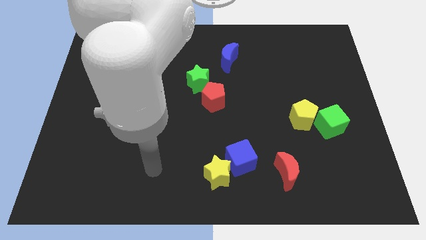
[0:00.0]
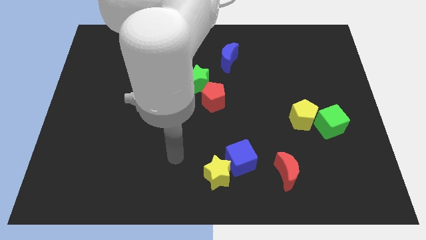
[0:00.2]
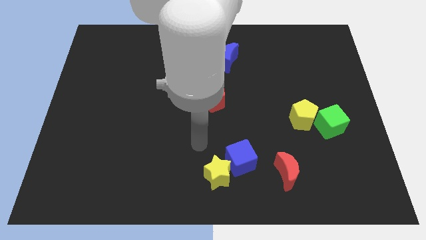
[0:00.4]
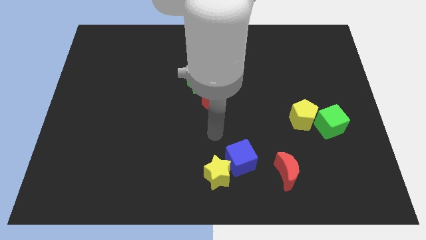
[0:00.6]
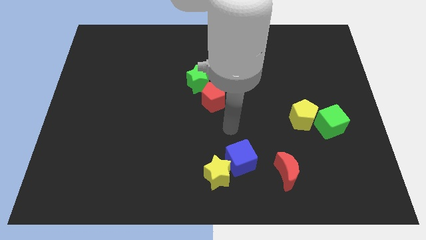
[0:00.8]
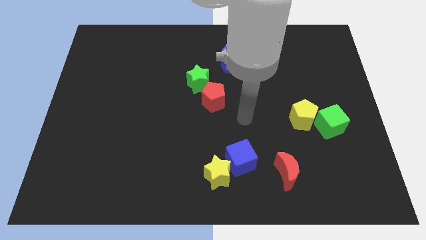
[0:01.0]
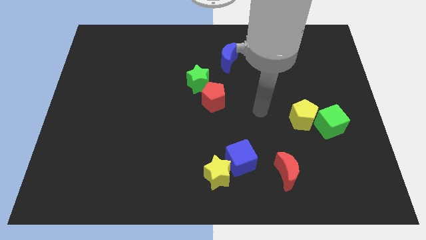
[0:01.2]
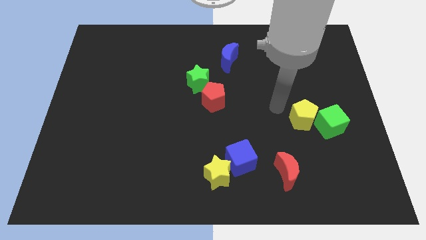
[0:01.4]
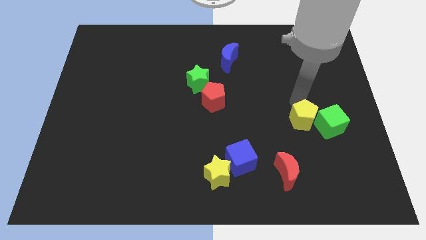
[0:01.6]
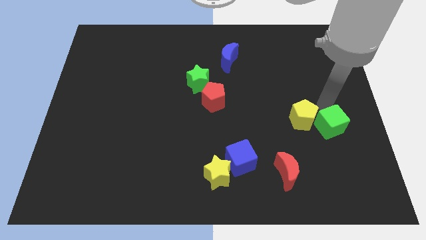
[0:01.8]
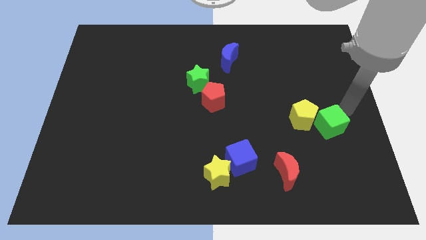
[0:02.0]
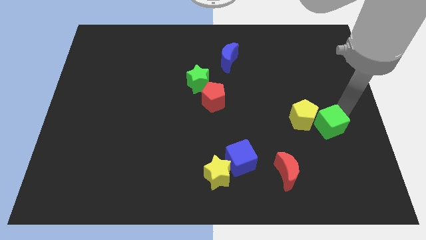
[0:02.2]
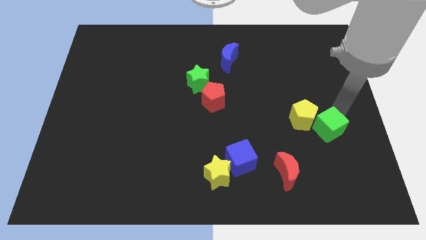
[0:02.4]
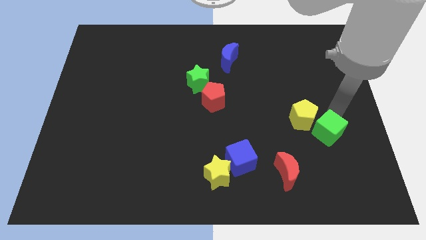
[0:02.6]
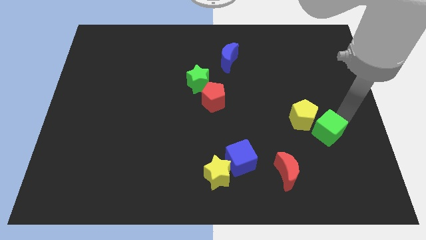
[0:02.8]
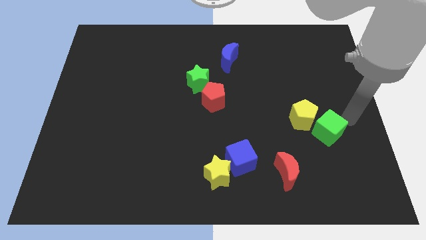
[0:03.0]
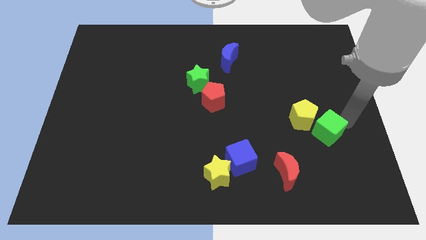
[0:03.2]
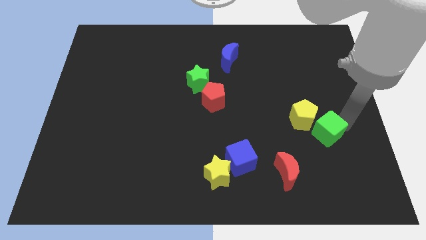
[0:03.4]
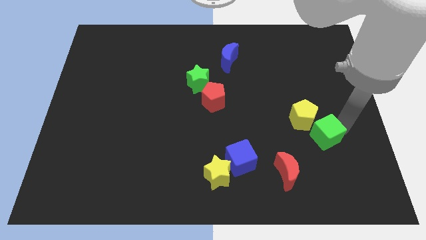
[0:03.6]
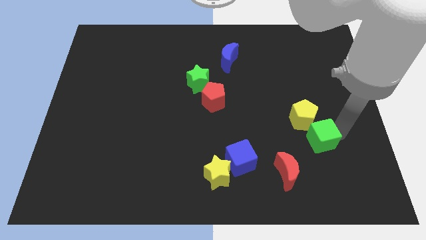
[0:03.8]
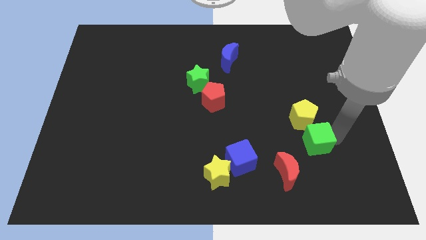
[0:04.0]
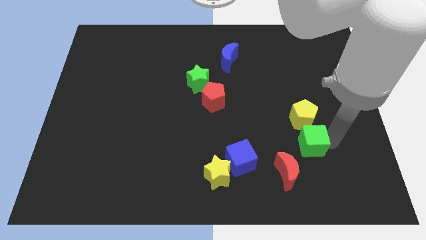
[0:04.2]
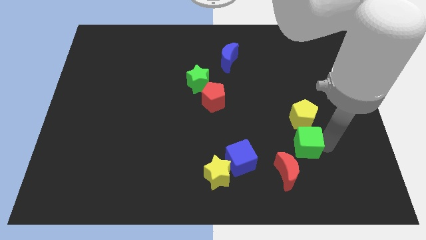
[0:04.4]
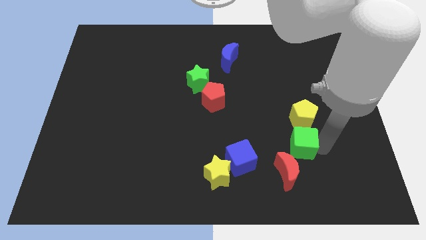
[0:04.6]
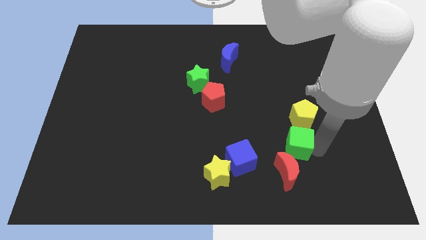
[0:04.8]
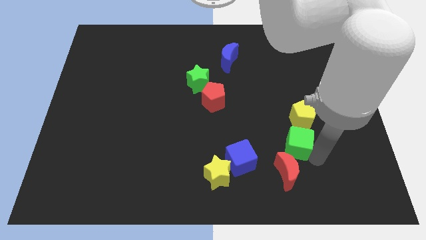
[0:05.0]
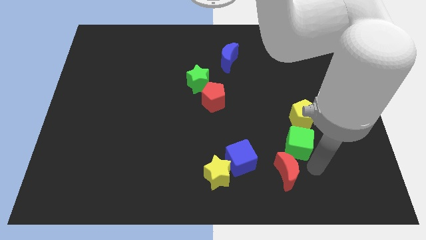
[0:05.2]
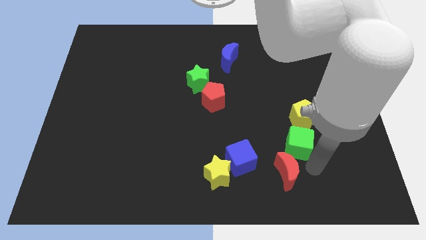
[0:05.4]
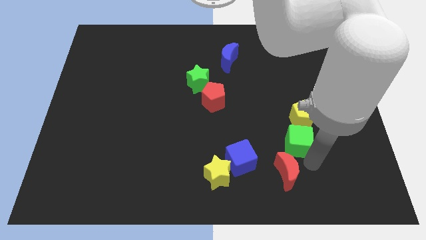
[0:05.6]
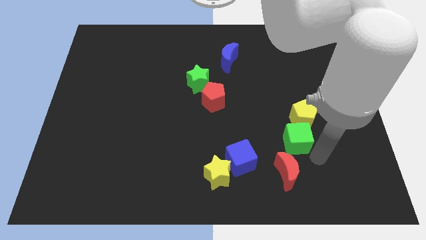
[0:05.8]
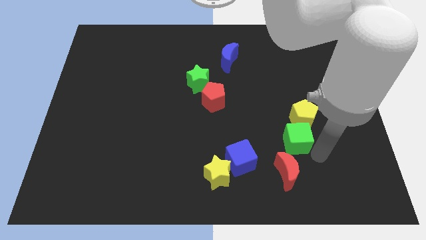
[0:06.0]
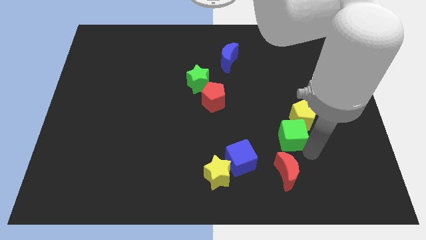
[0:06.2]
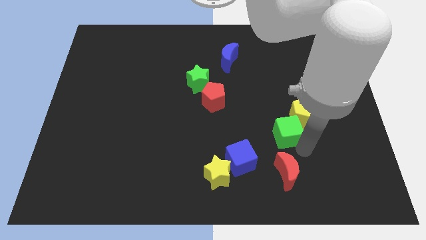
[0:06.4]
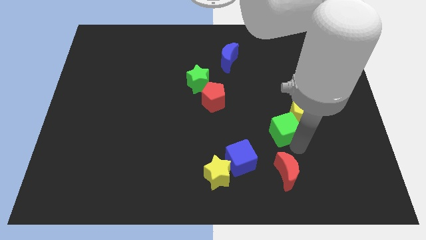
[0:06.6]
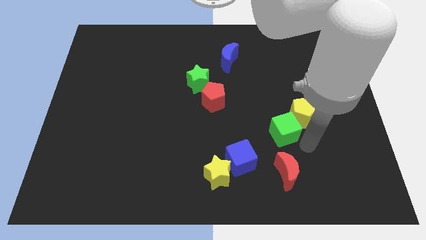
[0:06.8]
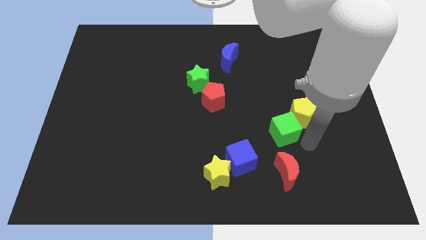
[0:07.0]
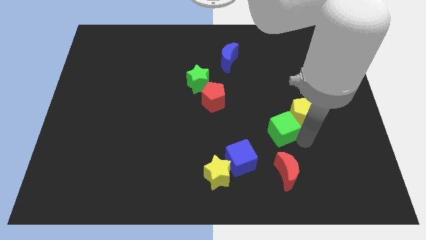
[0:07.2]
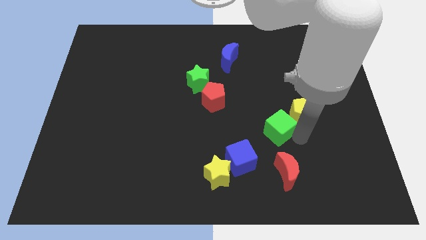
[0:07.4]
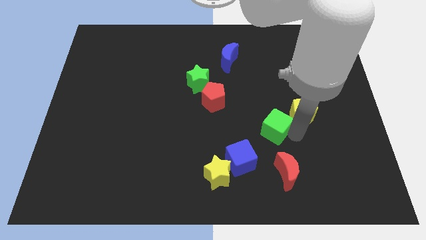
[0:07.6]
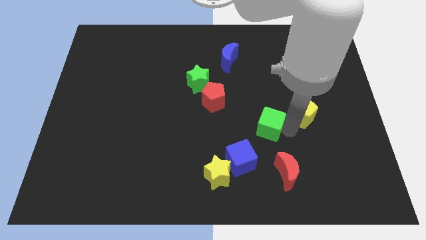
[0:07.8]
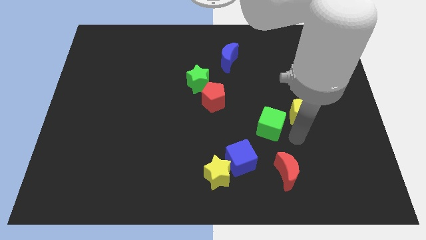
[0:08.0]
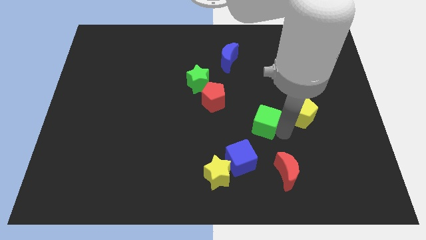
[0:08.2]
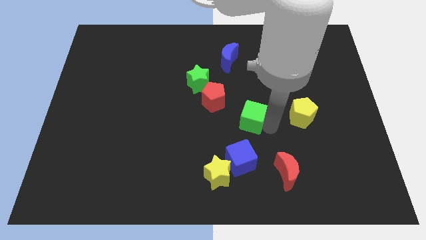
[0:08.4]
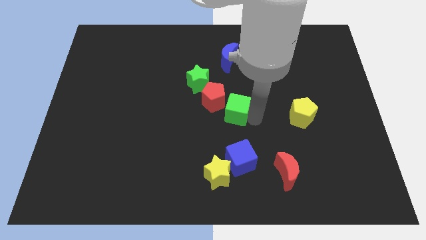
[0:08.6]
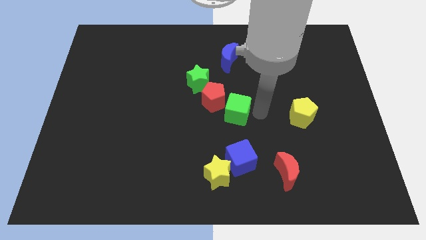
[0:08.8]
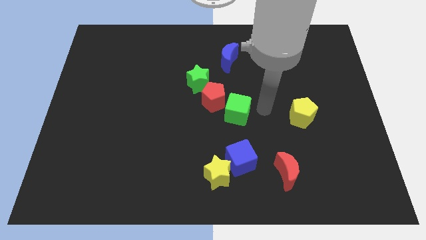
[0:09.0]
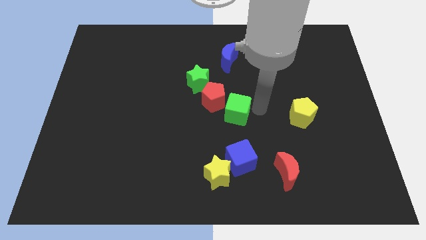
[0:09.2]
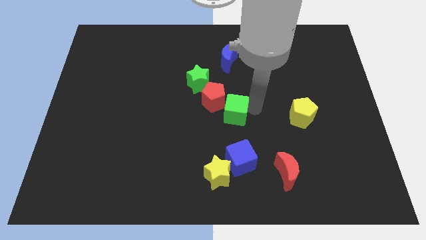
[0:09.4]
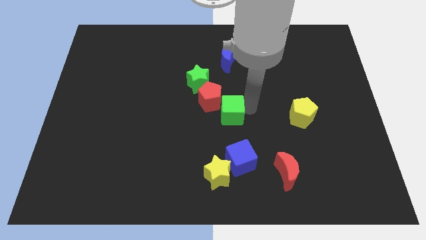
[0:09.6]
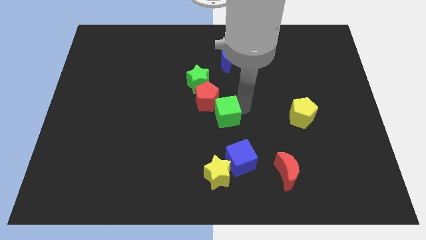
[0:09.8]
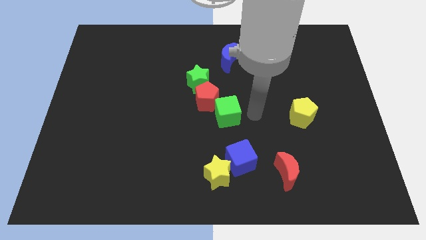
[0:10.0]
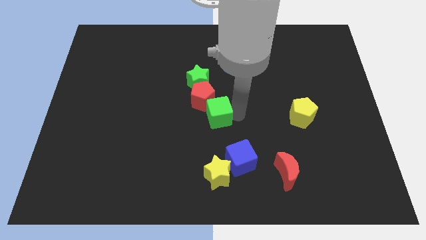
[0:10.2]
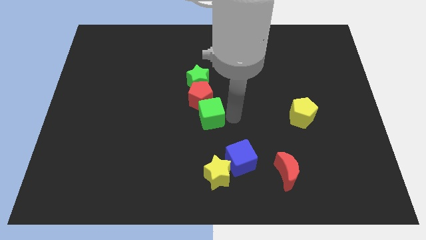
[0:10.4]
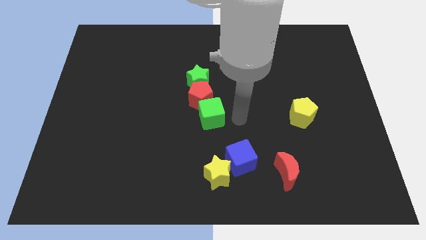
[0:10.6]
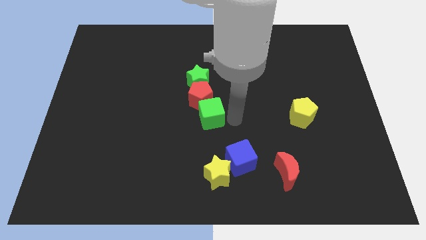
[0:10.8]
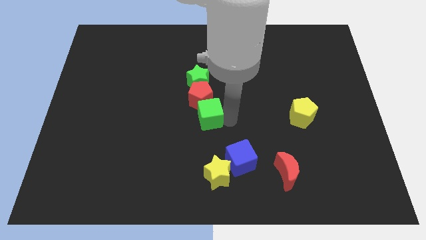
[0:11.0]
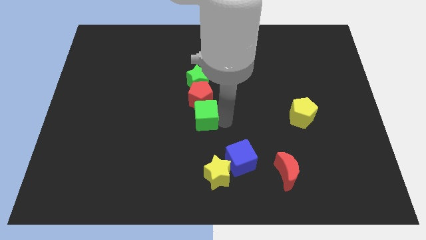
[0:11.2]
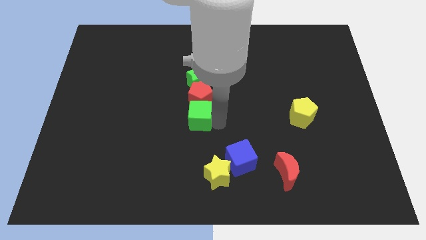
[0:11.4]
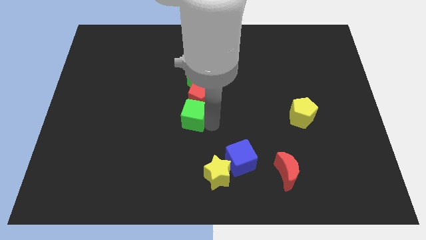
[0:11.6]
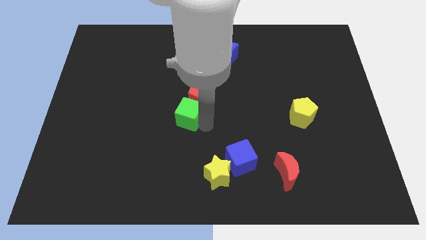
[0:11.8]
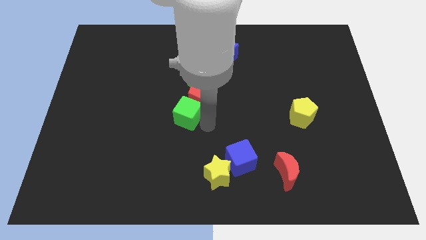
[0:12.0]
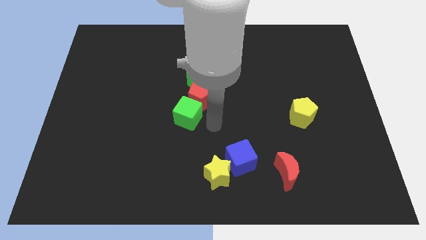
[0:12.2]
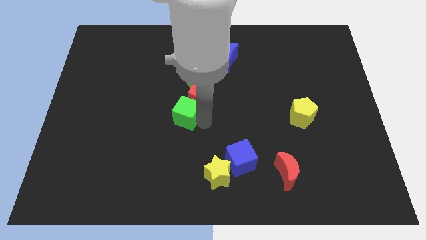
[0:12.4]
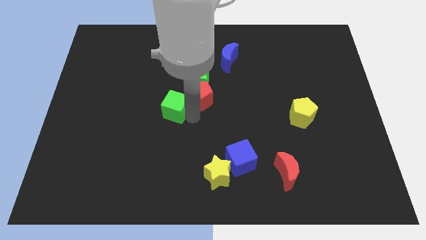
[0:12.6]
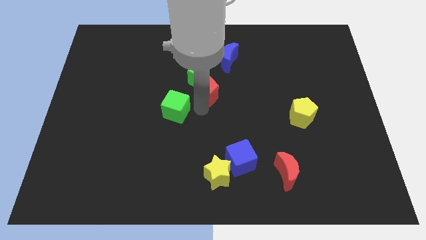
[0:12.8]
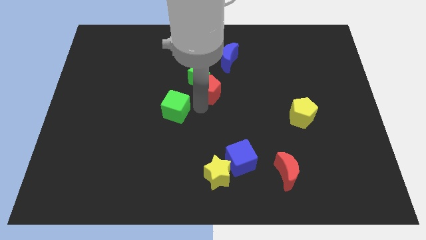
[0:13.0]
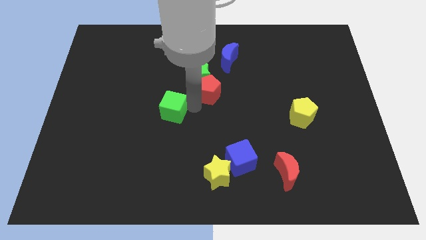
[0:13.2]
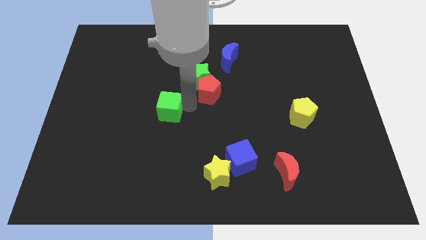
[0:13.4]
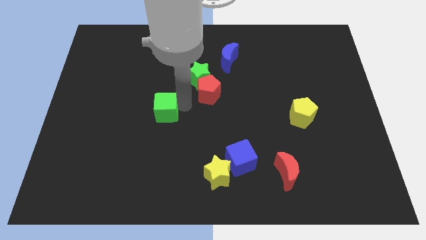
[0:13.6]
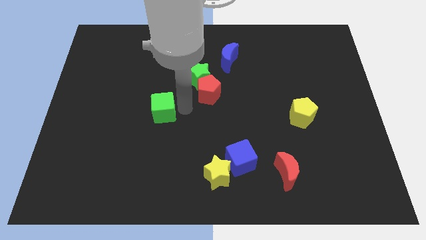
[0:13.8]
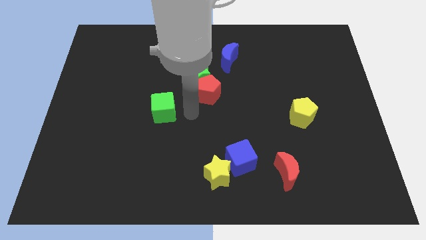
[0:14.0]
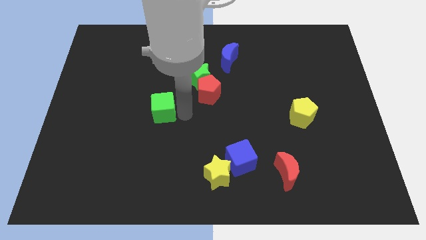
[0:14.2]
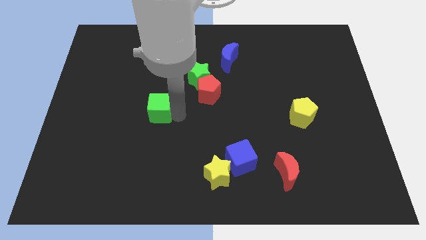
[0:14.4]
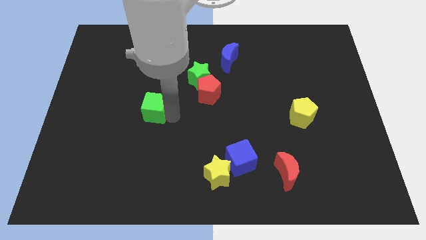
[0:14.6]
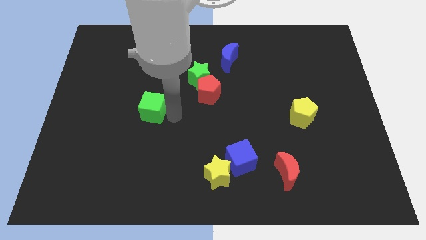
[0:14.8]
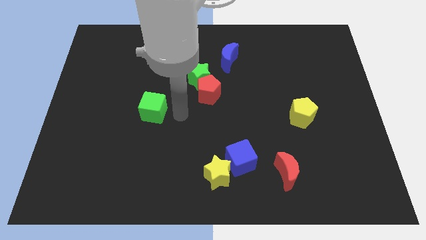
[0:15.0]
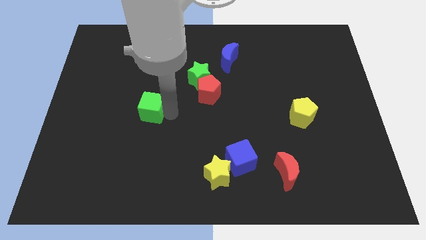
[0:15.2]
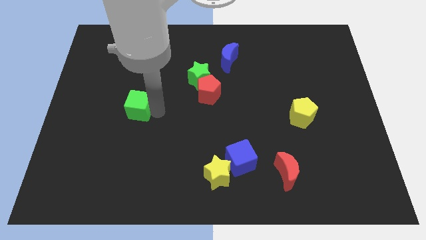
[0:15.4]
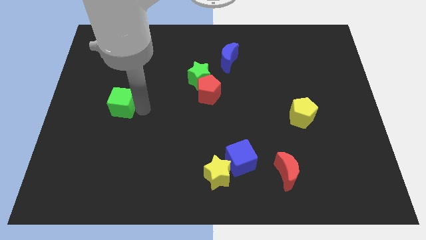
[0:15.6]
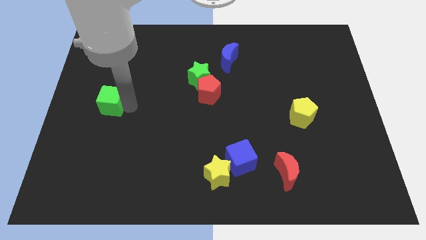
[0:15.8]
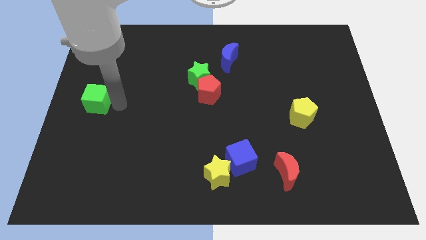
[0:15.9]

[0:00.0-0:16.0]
put the green cube to the left side of the board
